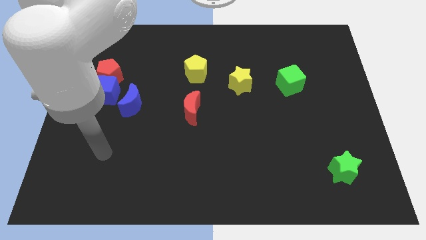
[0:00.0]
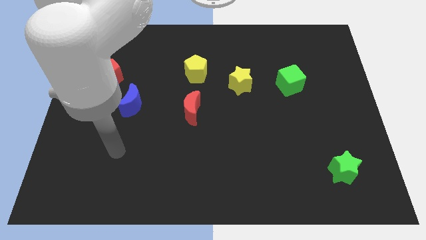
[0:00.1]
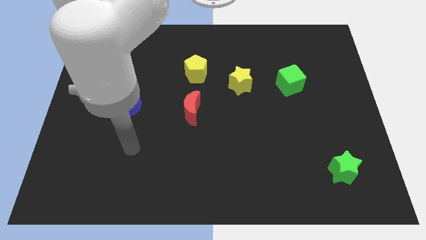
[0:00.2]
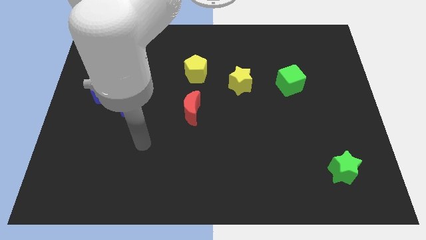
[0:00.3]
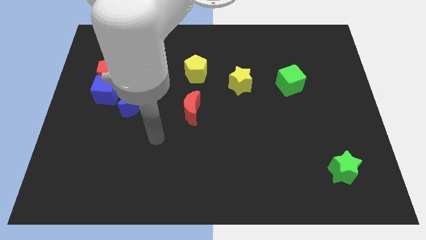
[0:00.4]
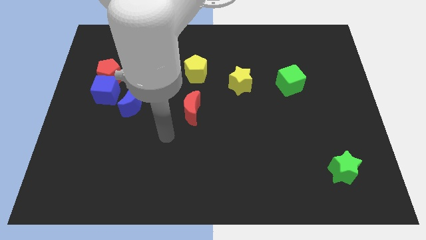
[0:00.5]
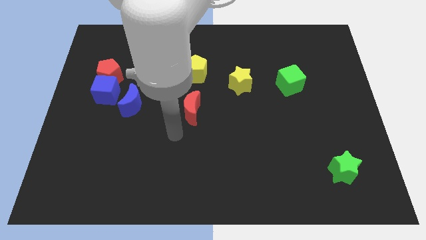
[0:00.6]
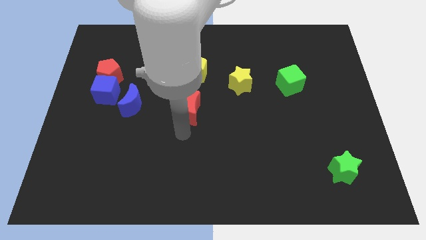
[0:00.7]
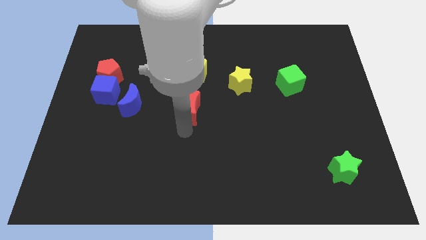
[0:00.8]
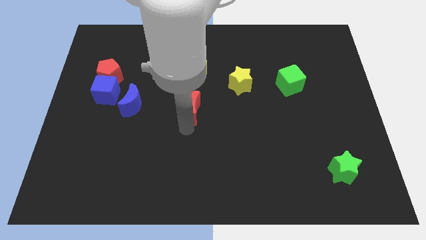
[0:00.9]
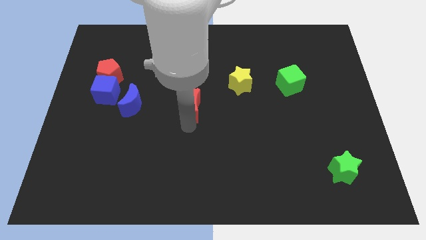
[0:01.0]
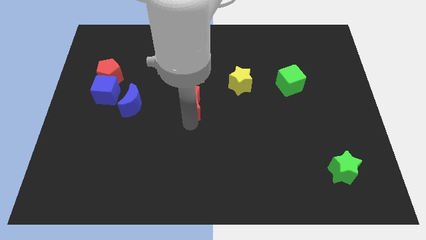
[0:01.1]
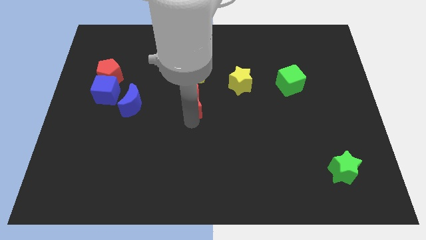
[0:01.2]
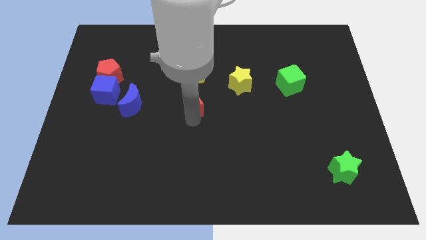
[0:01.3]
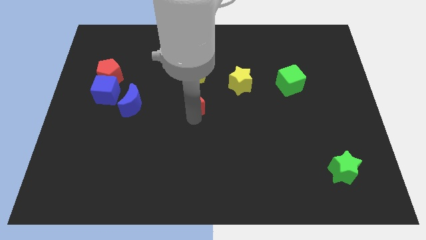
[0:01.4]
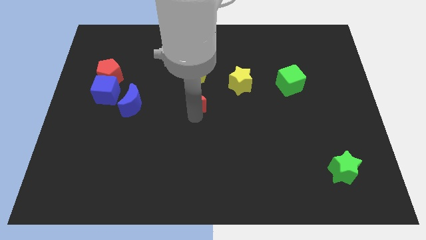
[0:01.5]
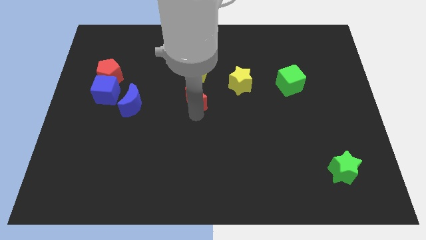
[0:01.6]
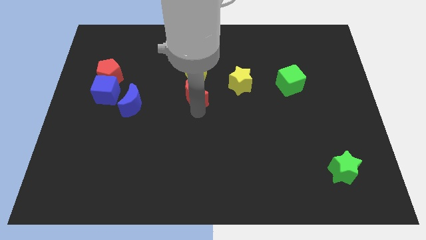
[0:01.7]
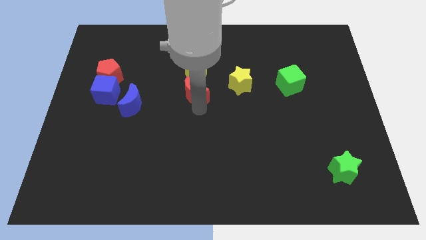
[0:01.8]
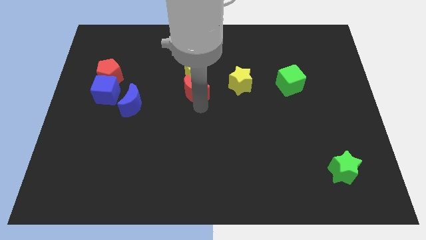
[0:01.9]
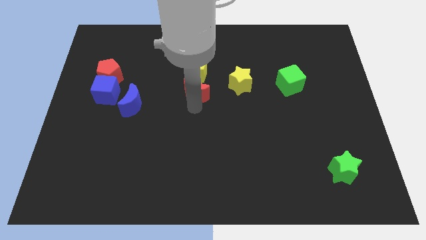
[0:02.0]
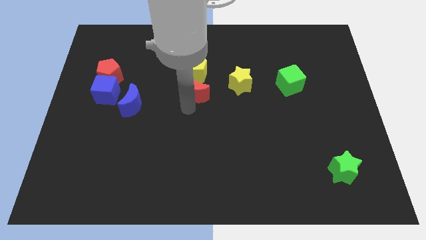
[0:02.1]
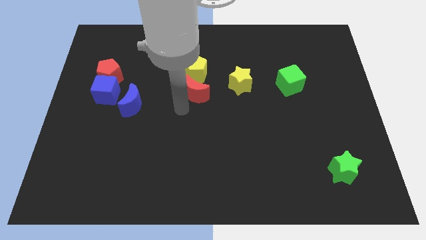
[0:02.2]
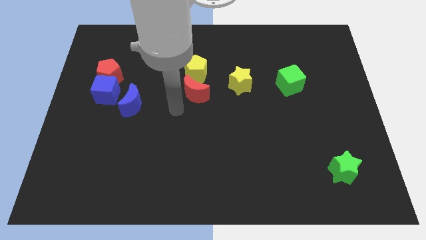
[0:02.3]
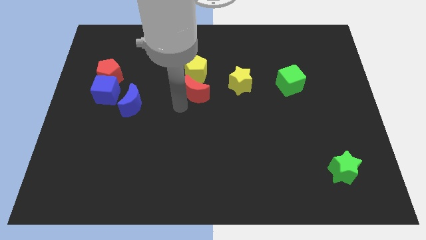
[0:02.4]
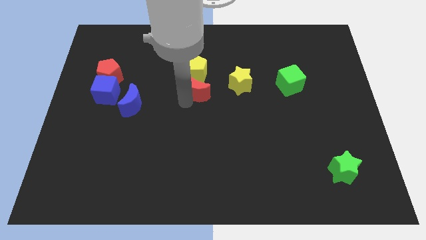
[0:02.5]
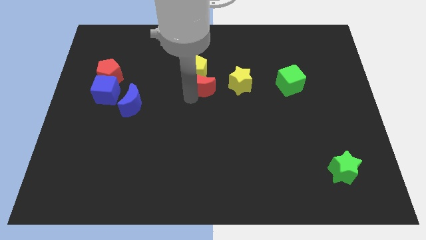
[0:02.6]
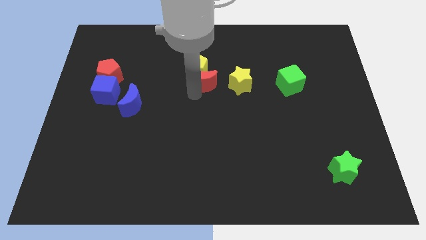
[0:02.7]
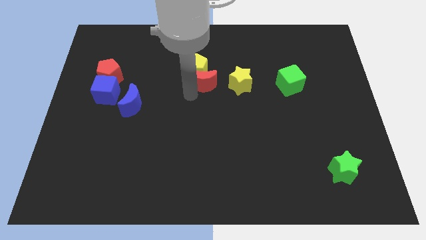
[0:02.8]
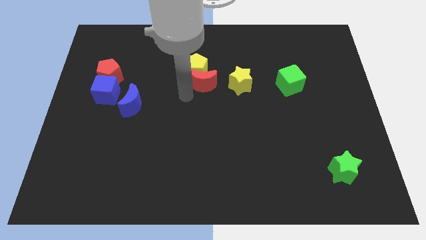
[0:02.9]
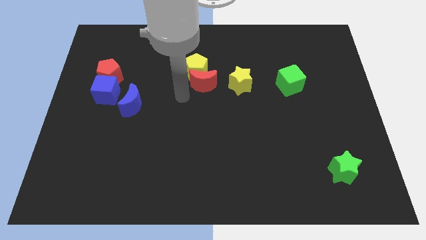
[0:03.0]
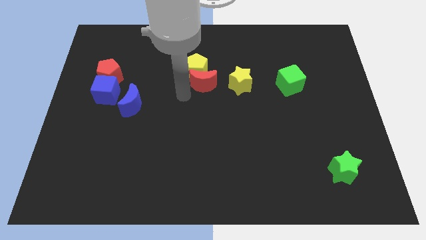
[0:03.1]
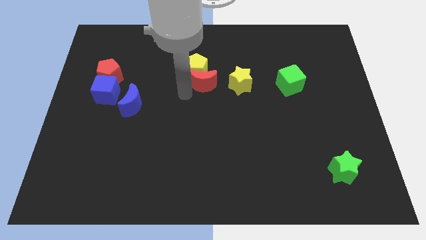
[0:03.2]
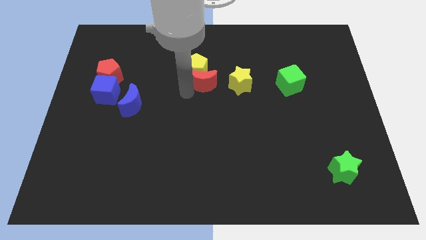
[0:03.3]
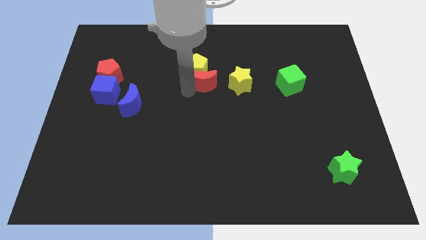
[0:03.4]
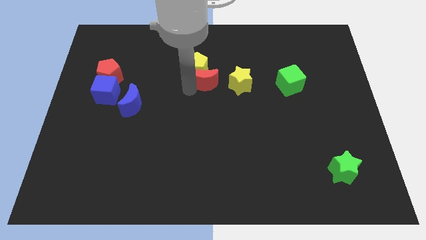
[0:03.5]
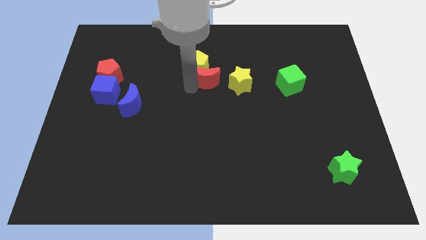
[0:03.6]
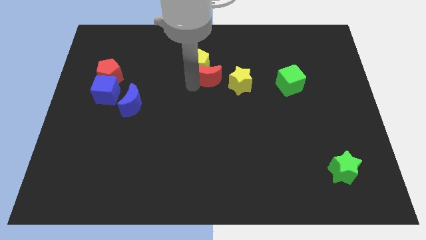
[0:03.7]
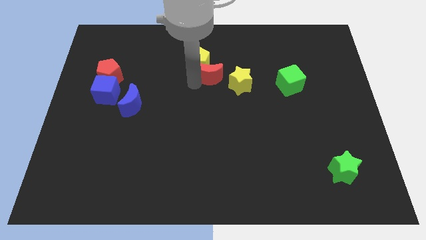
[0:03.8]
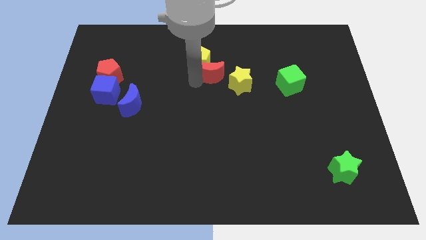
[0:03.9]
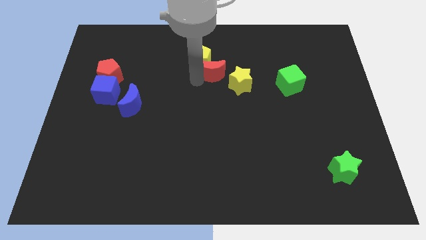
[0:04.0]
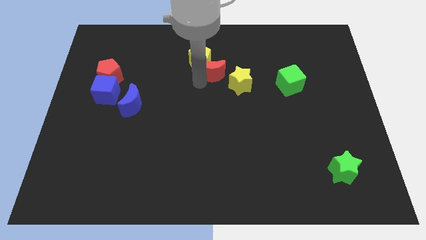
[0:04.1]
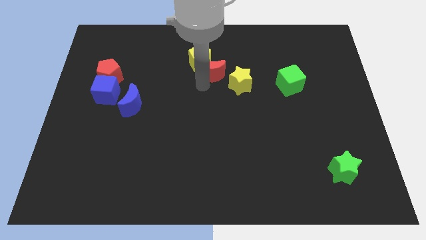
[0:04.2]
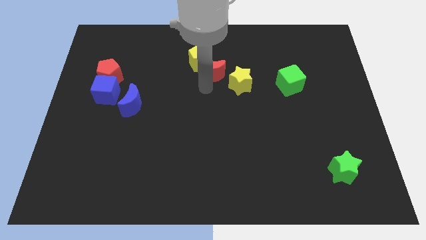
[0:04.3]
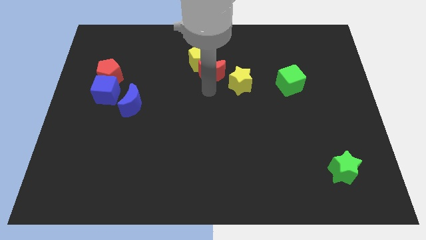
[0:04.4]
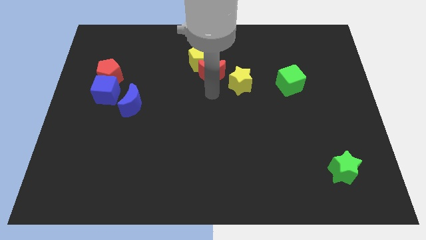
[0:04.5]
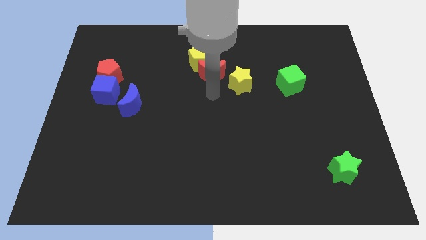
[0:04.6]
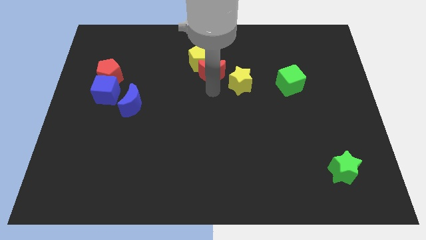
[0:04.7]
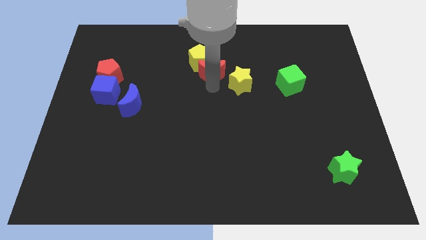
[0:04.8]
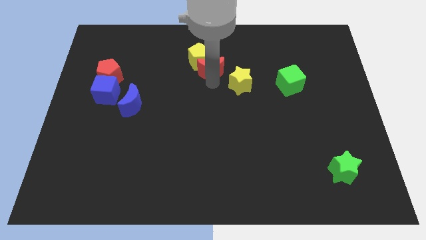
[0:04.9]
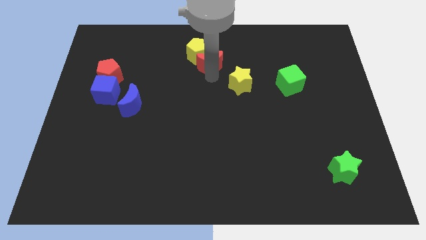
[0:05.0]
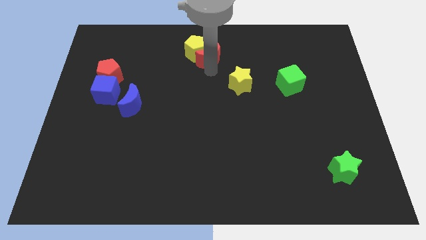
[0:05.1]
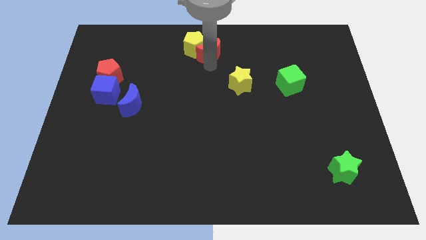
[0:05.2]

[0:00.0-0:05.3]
slide the red moon to the towards your base
